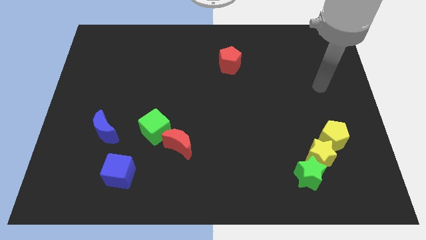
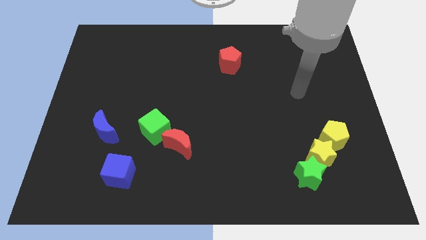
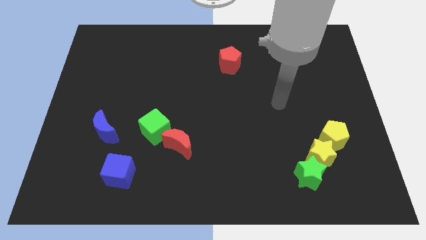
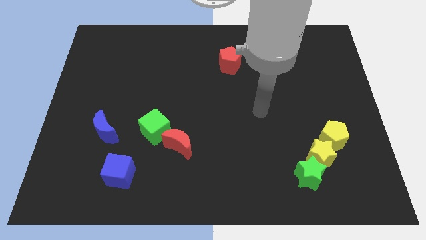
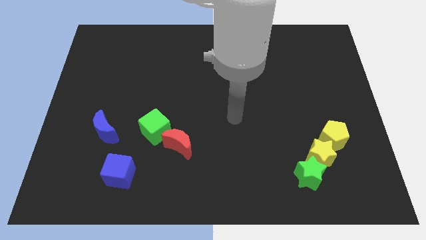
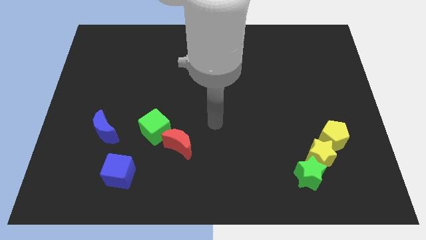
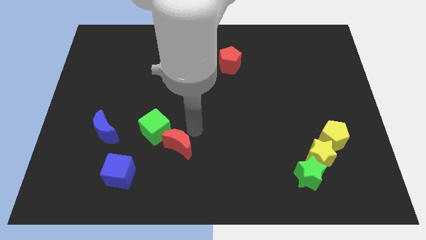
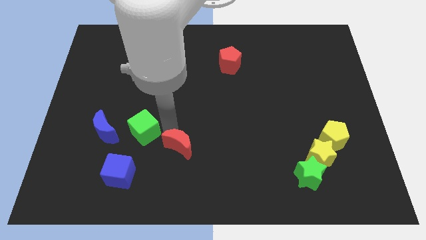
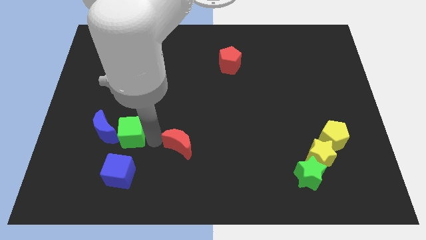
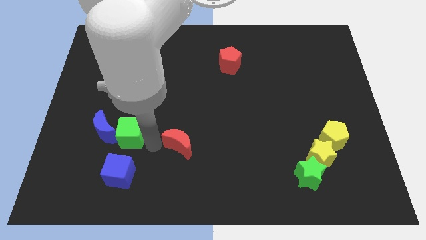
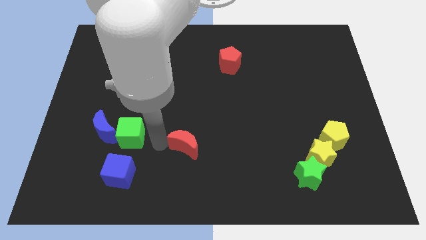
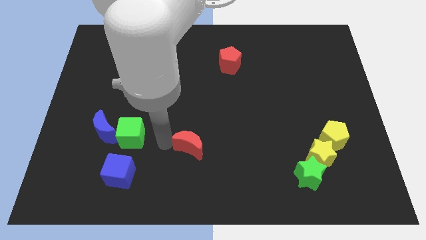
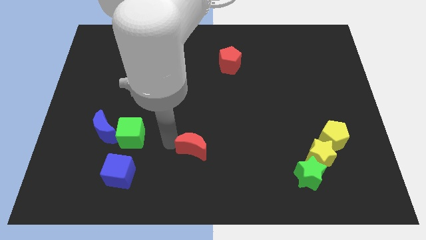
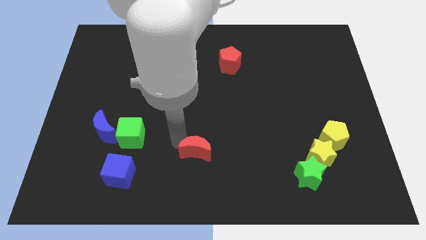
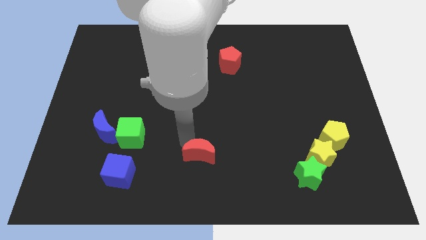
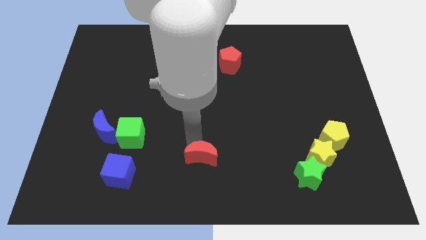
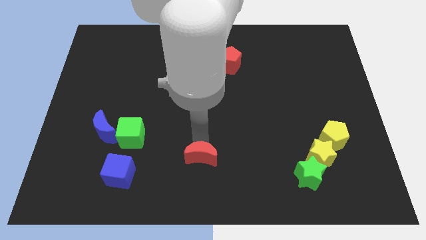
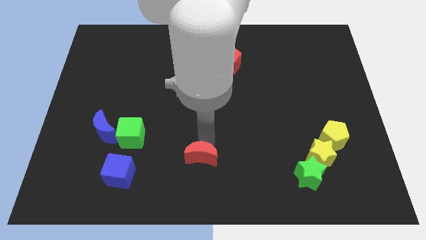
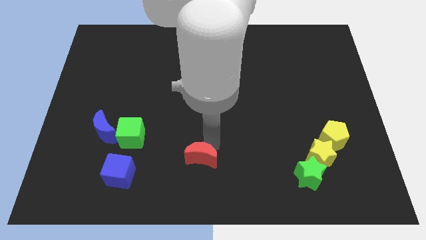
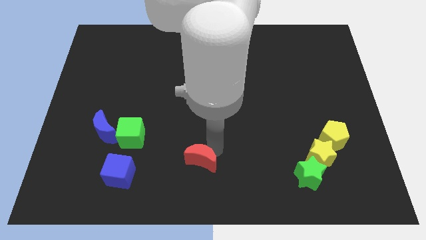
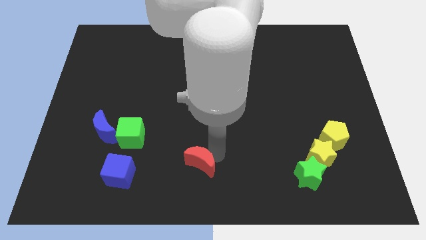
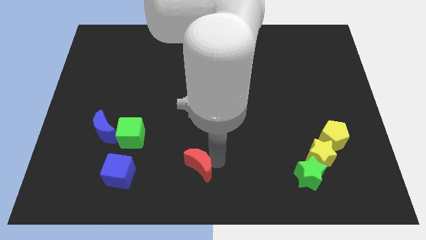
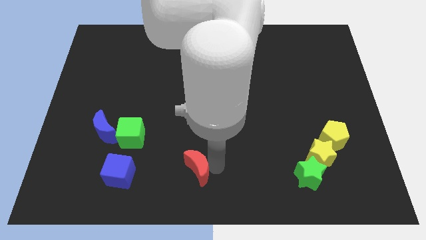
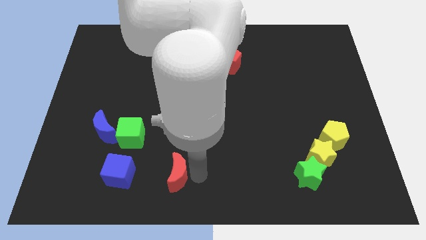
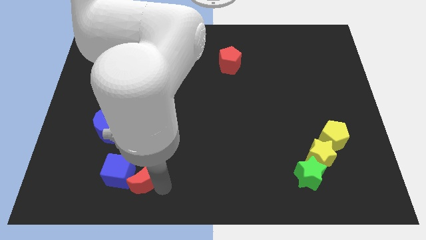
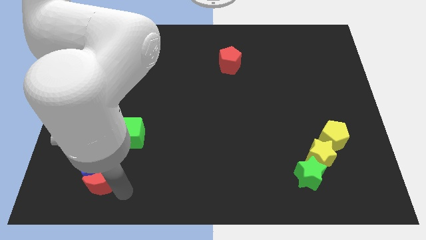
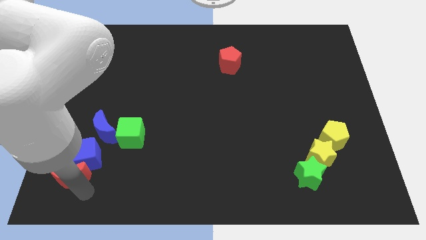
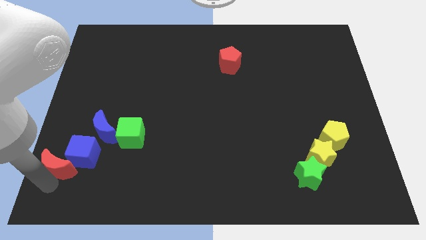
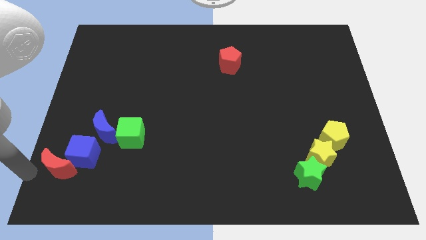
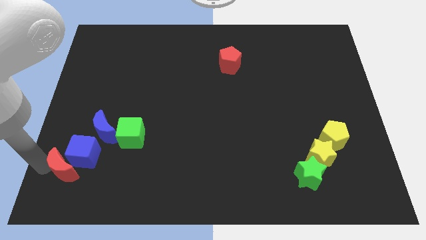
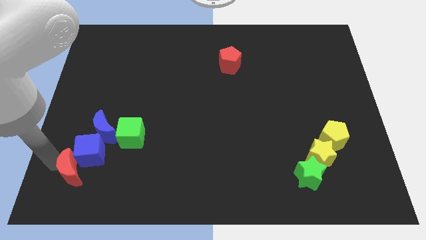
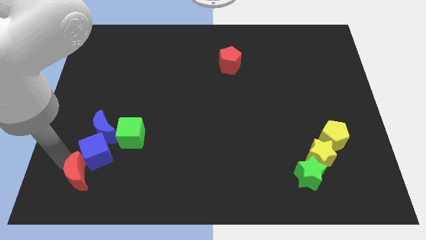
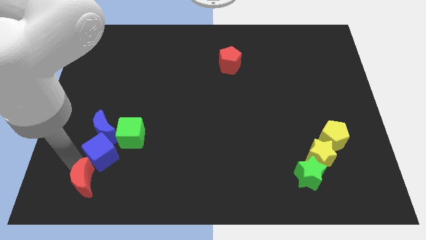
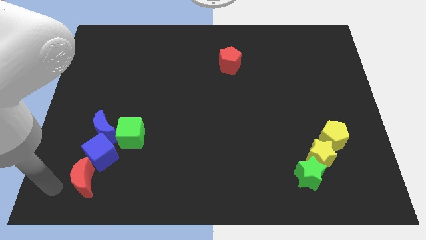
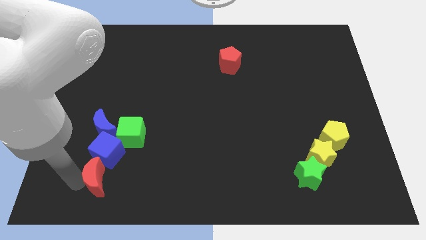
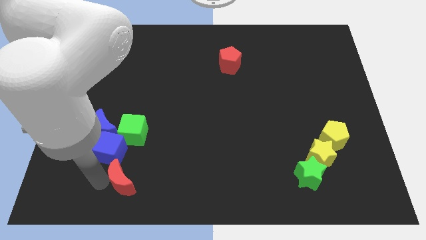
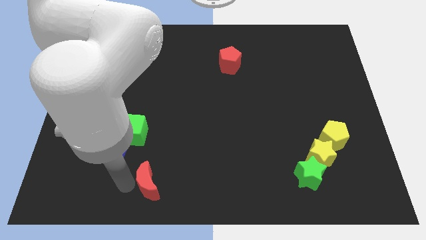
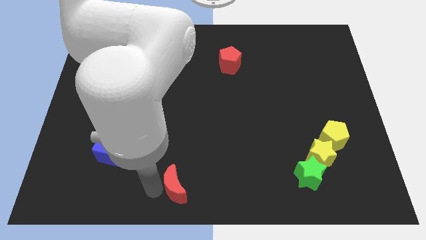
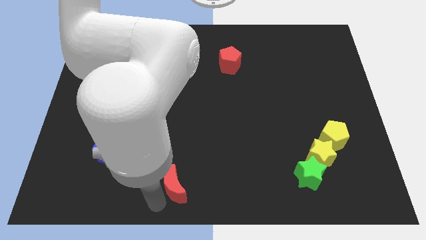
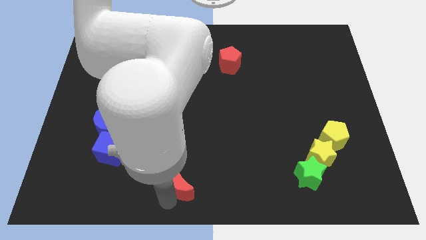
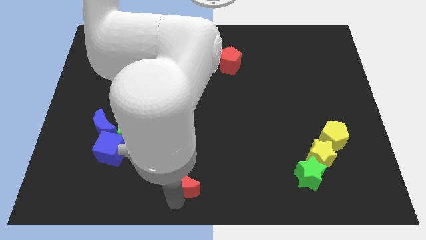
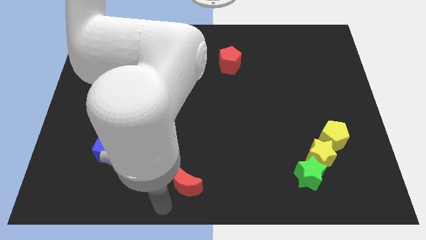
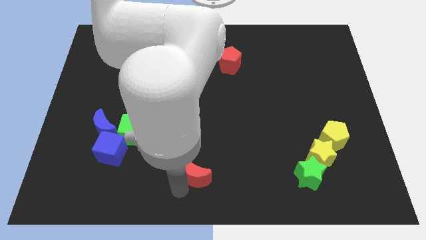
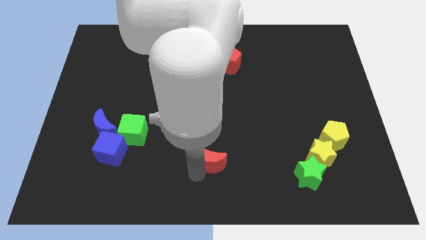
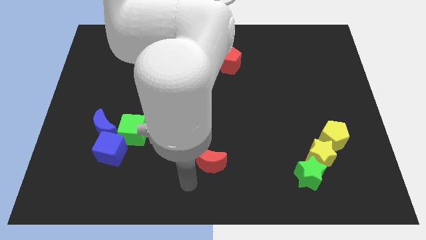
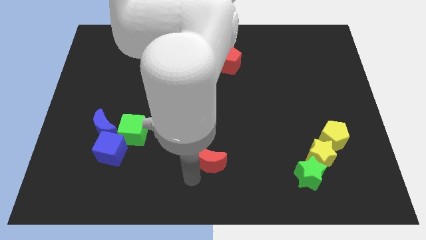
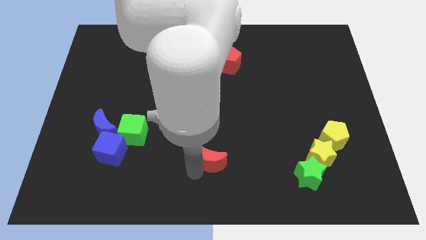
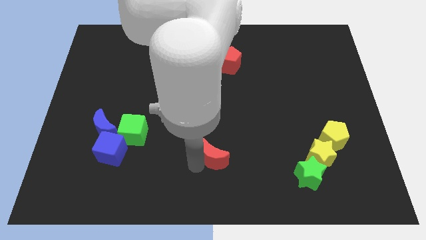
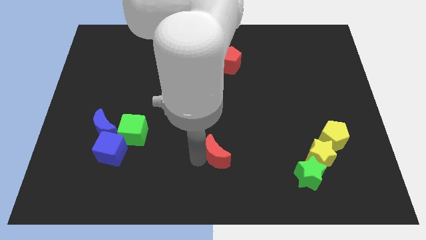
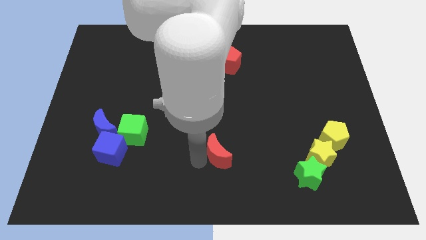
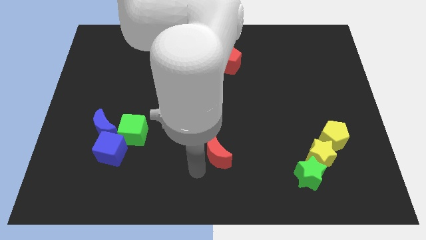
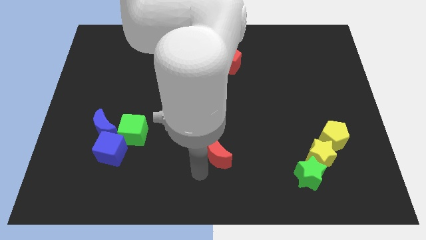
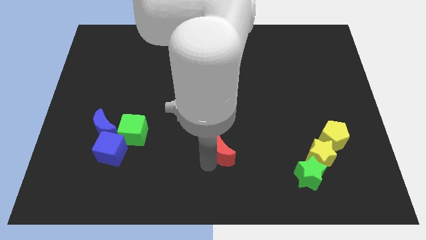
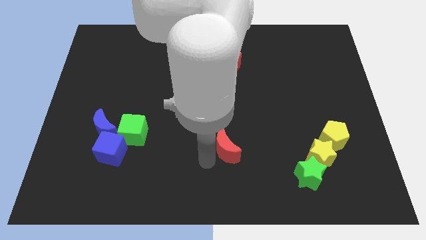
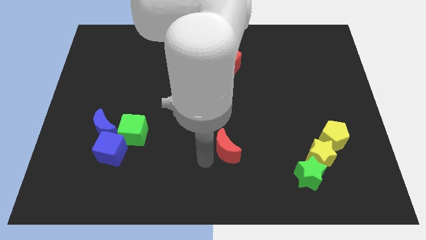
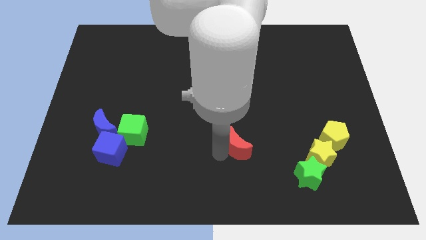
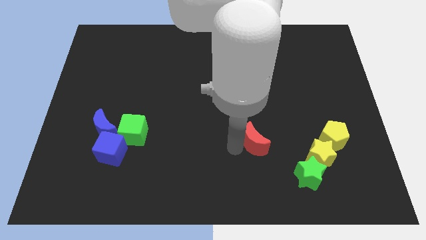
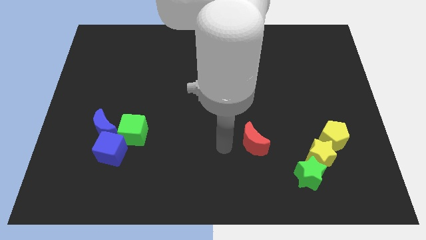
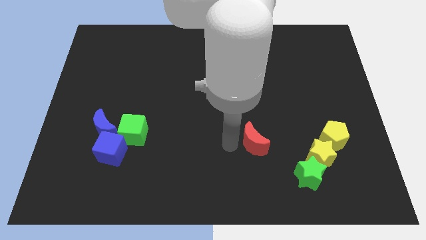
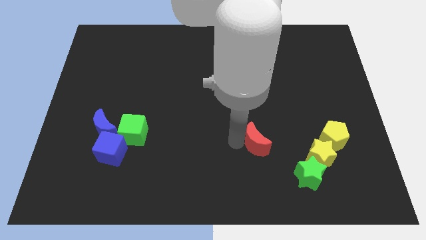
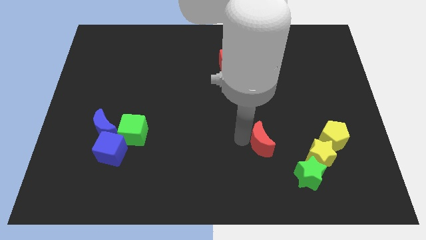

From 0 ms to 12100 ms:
put the red moon just left of the yellow pentagon

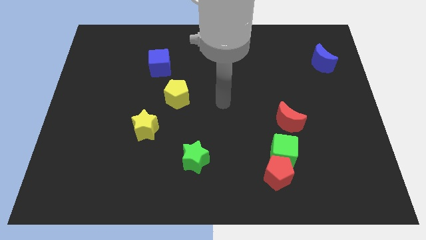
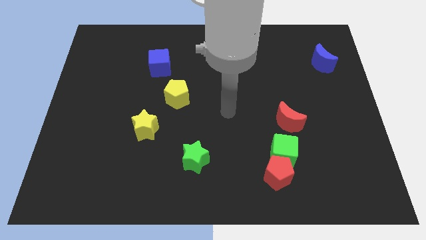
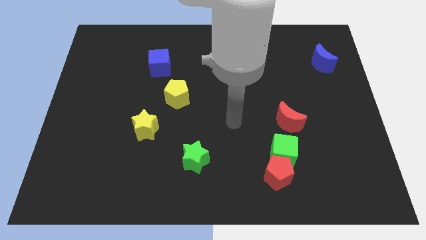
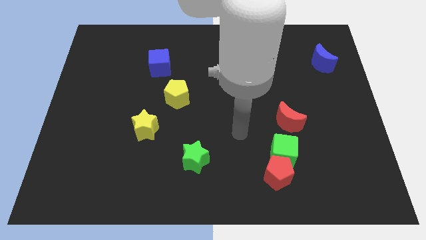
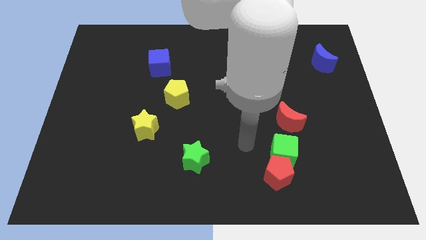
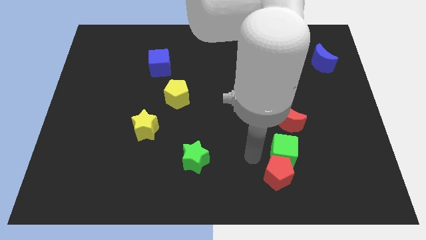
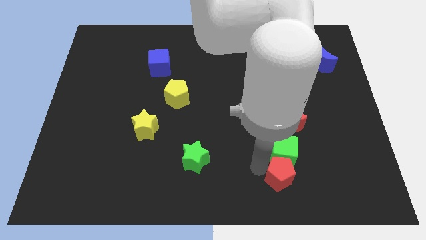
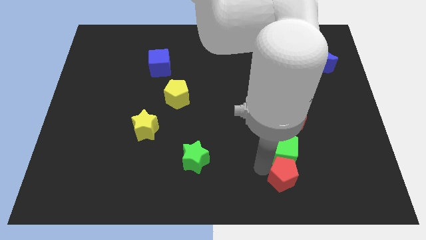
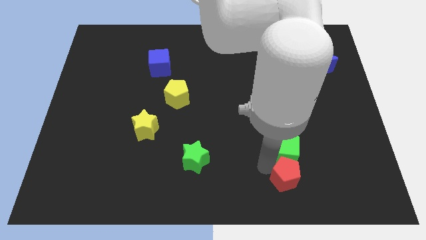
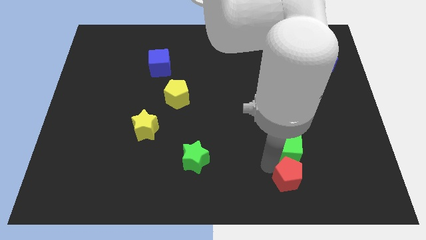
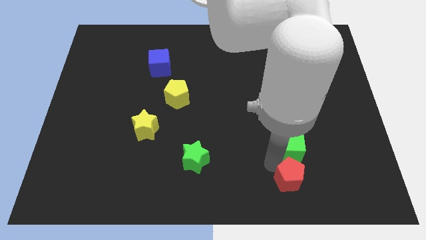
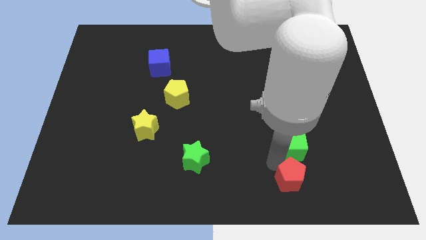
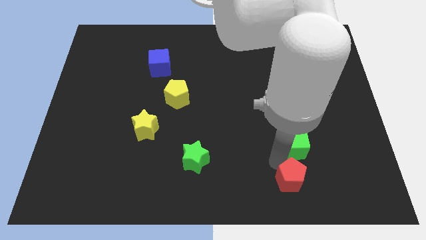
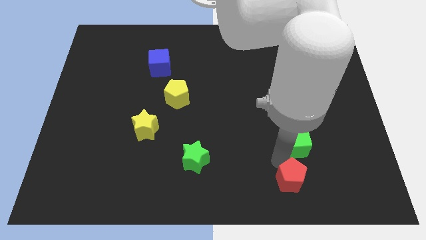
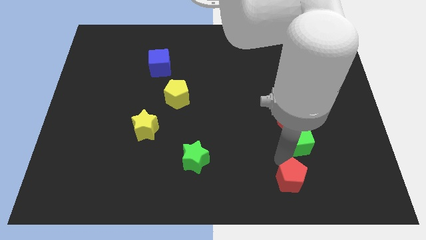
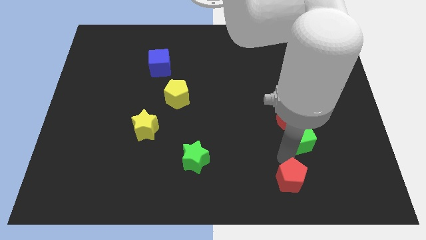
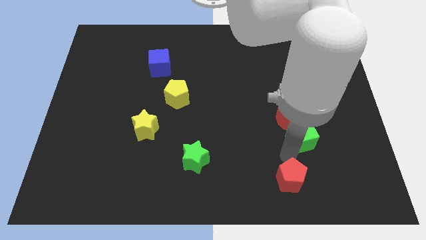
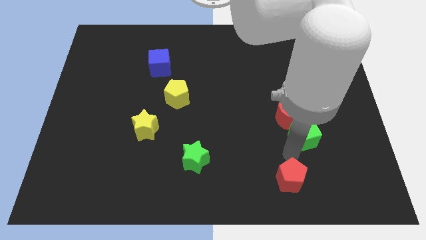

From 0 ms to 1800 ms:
push the green cube right of the red moon
